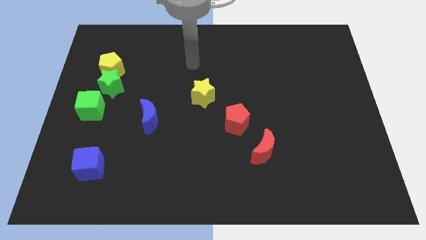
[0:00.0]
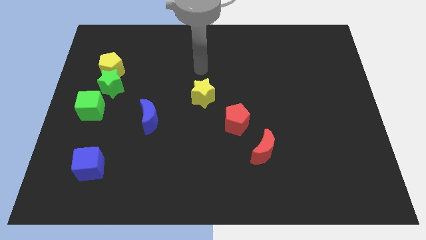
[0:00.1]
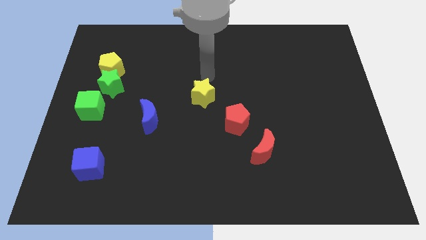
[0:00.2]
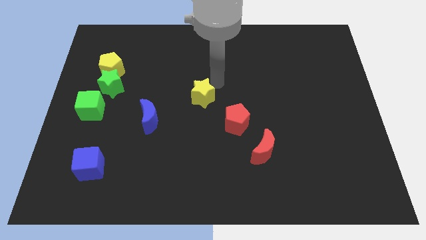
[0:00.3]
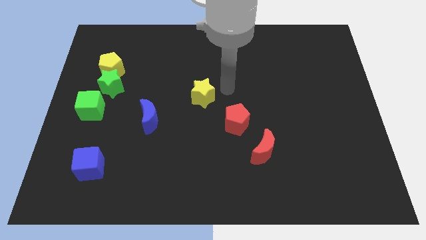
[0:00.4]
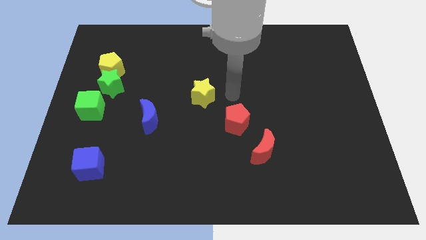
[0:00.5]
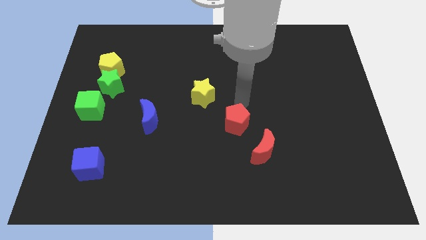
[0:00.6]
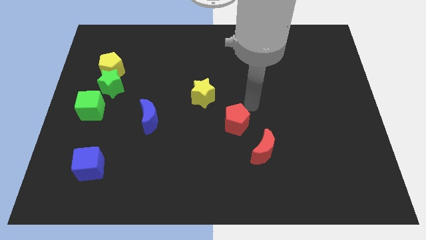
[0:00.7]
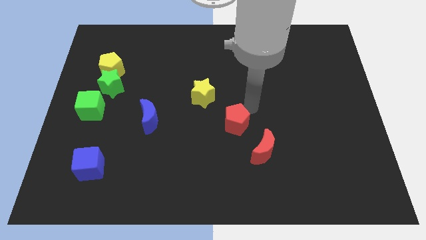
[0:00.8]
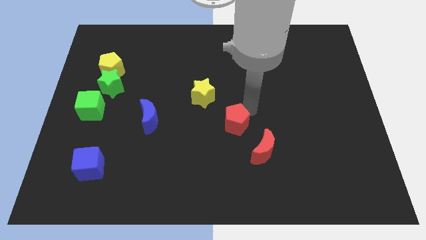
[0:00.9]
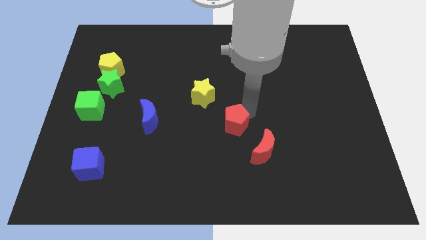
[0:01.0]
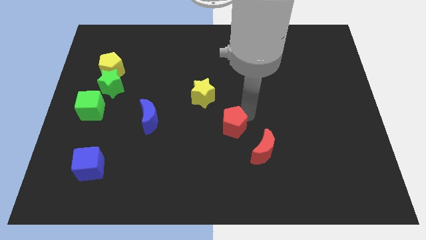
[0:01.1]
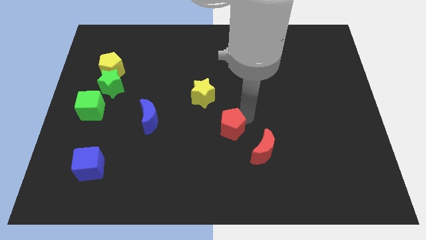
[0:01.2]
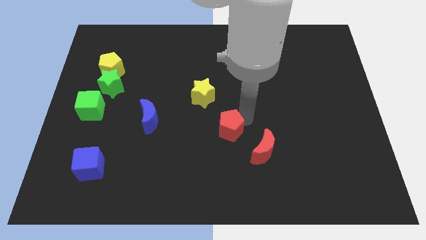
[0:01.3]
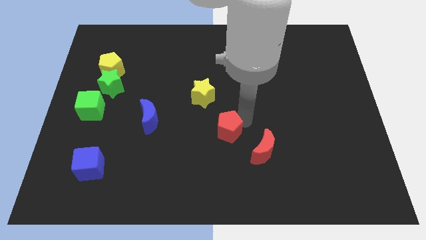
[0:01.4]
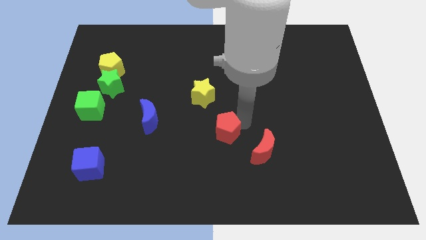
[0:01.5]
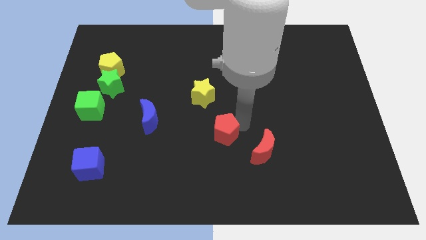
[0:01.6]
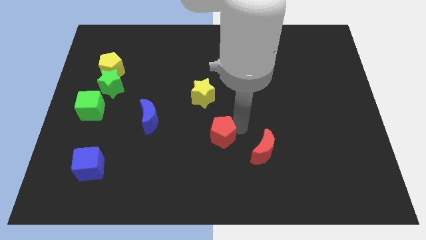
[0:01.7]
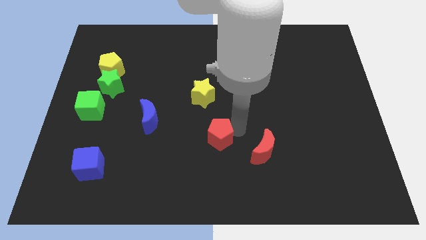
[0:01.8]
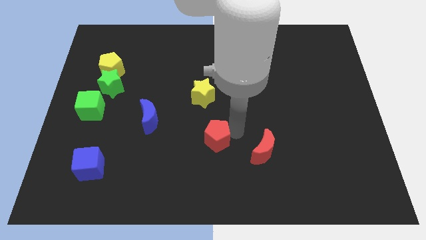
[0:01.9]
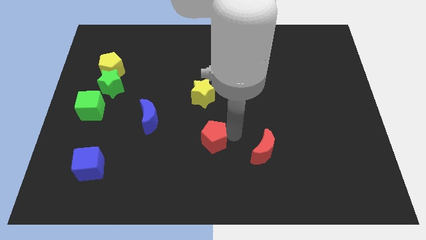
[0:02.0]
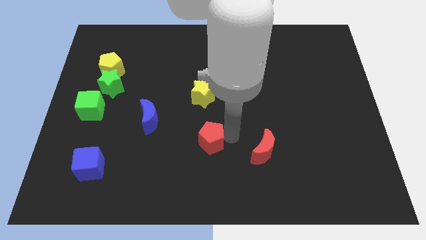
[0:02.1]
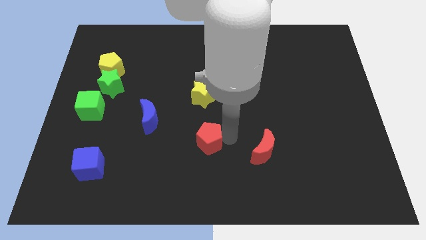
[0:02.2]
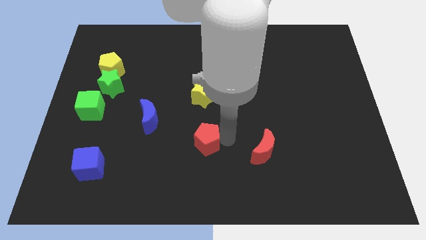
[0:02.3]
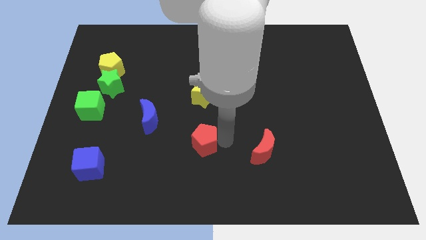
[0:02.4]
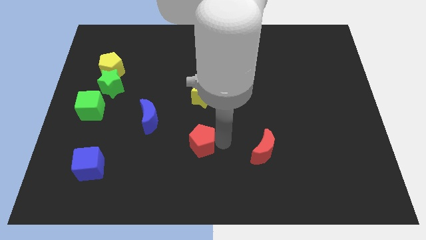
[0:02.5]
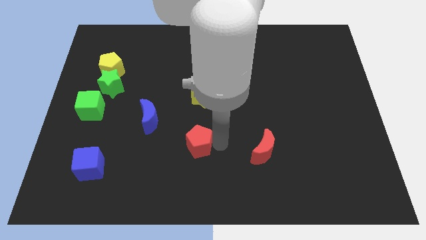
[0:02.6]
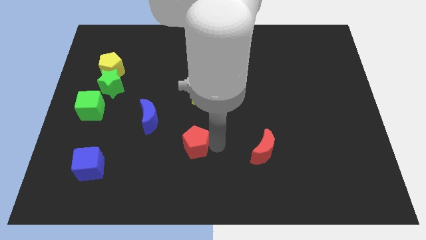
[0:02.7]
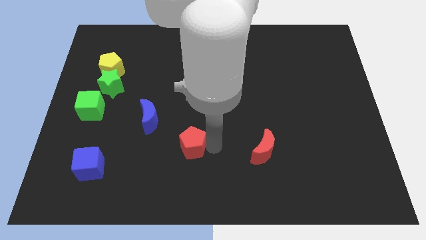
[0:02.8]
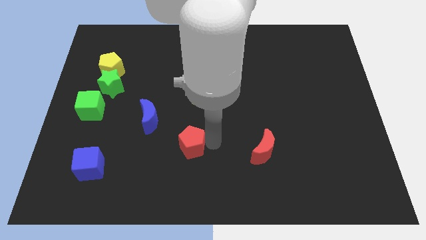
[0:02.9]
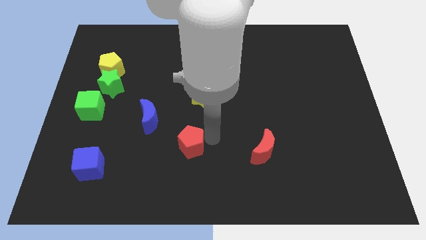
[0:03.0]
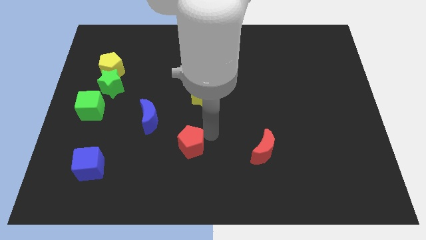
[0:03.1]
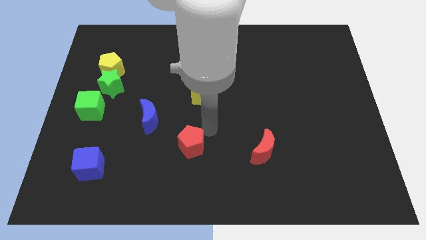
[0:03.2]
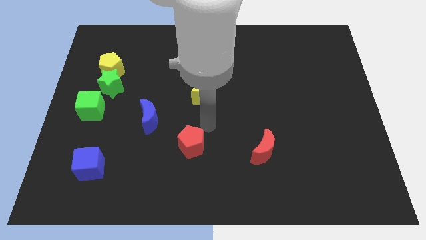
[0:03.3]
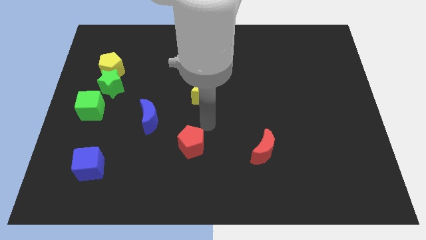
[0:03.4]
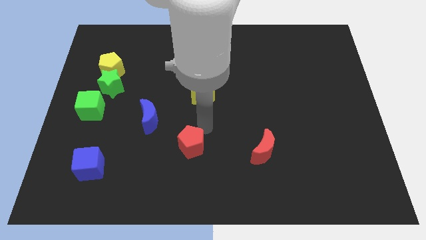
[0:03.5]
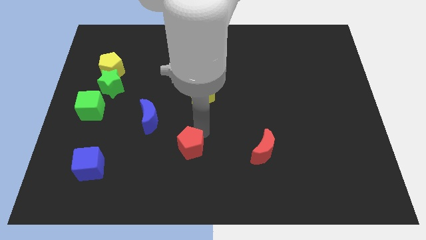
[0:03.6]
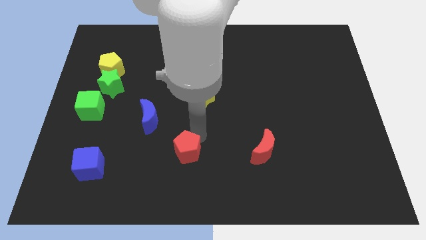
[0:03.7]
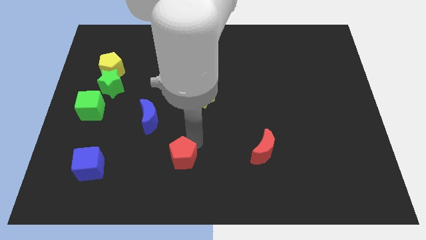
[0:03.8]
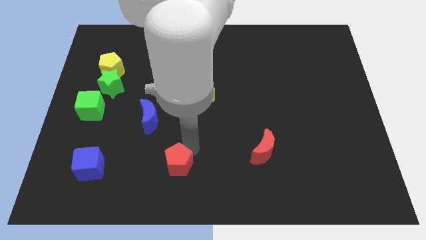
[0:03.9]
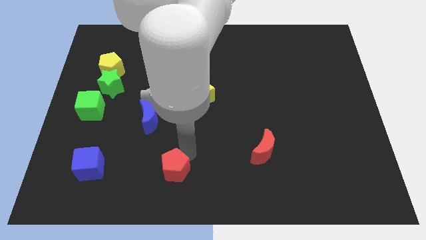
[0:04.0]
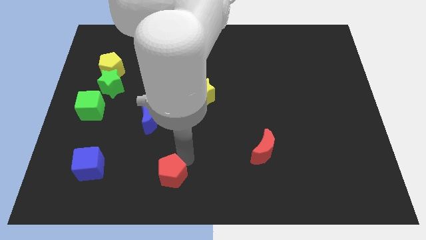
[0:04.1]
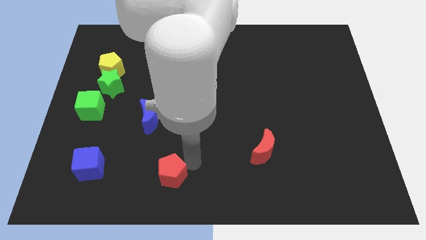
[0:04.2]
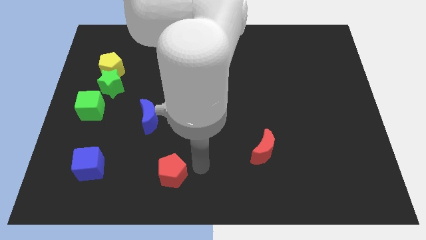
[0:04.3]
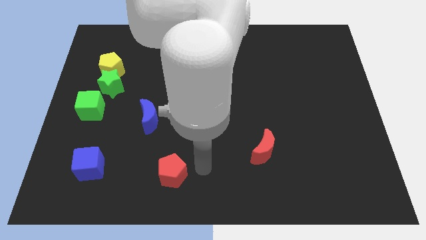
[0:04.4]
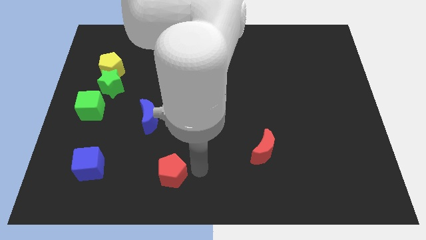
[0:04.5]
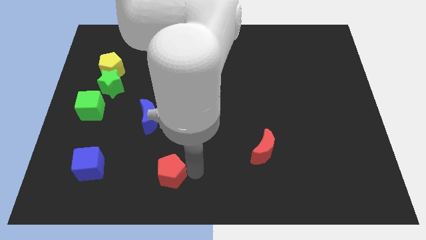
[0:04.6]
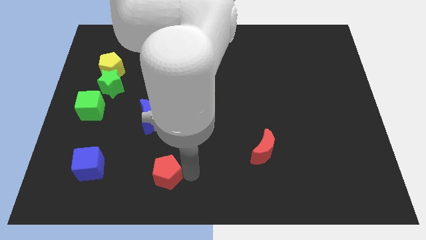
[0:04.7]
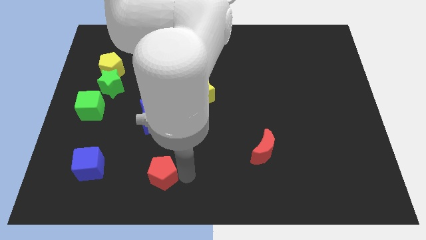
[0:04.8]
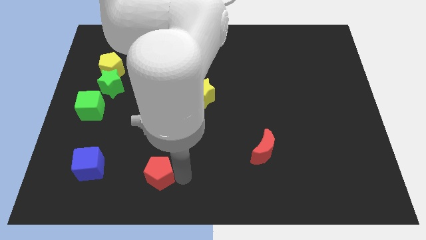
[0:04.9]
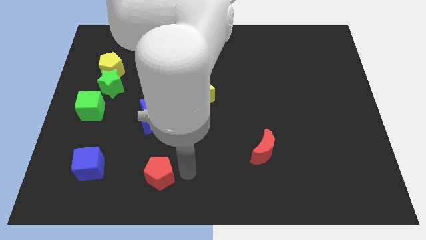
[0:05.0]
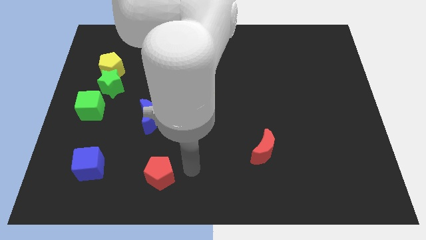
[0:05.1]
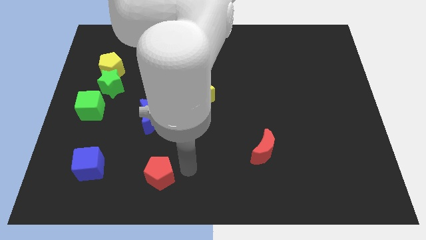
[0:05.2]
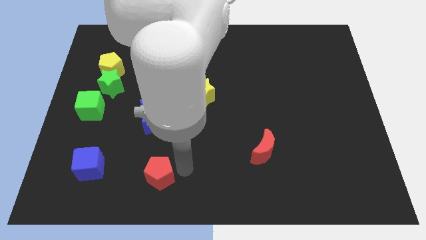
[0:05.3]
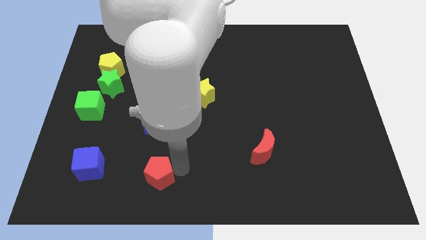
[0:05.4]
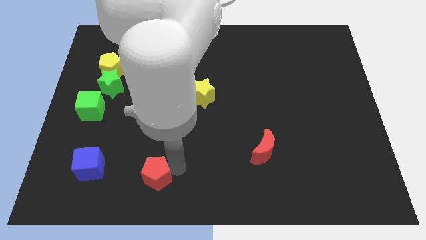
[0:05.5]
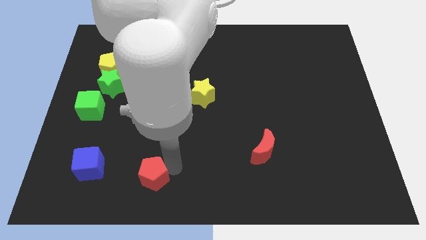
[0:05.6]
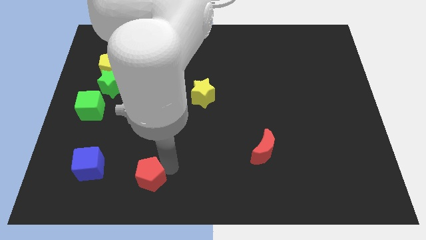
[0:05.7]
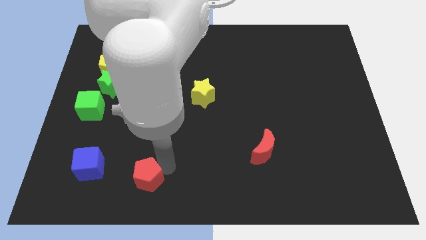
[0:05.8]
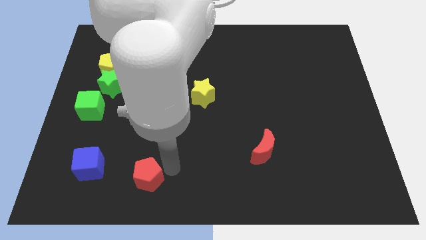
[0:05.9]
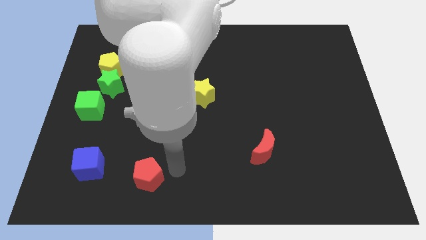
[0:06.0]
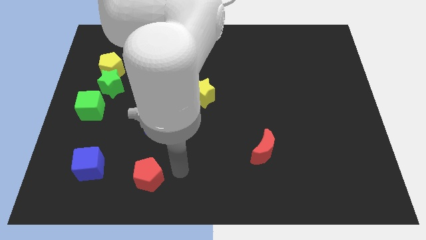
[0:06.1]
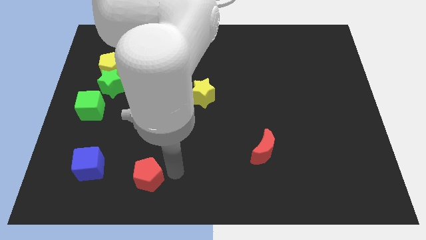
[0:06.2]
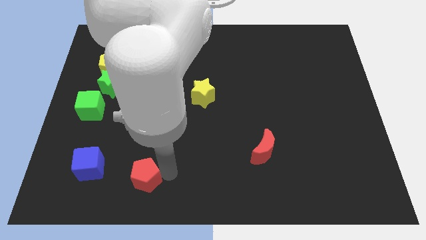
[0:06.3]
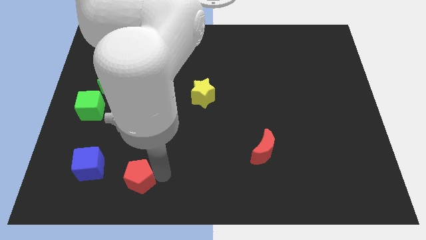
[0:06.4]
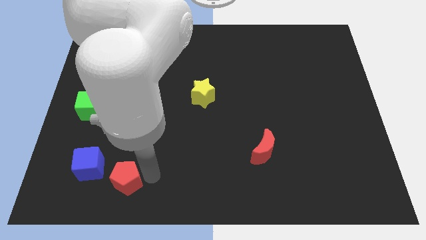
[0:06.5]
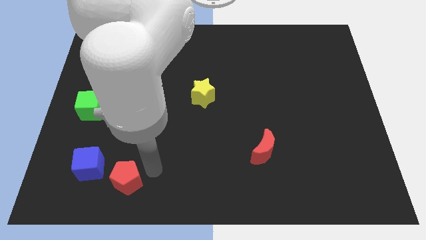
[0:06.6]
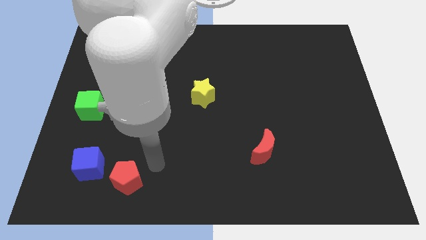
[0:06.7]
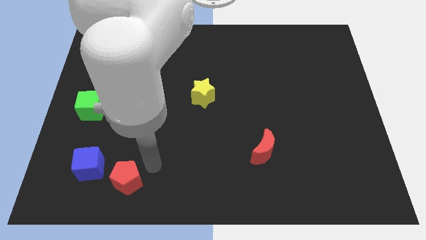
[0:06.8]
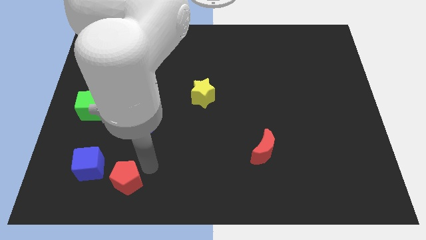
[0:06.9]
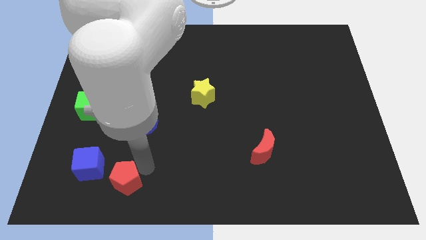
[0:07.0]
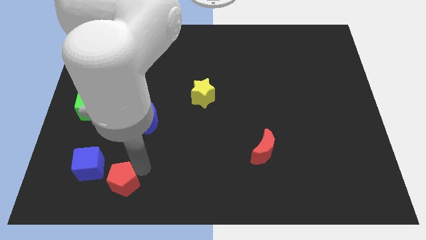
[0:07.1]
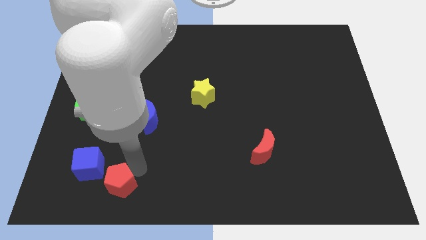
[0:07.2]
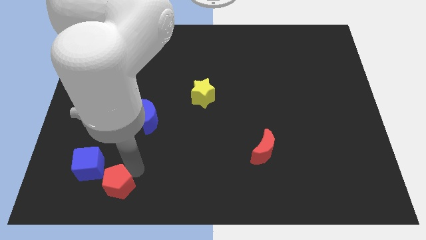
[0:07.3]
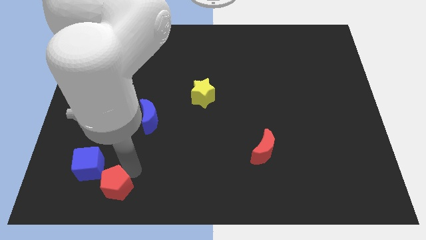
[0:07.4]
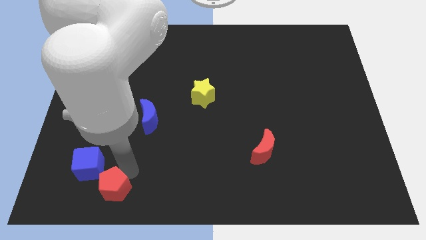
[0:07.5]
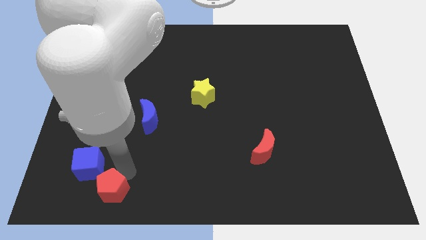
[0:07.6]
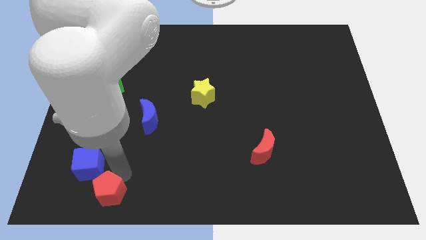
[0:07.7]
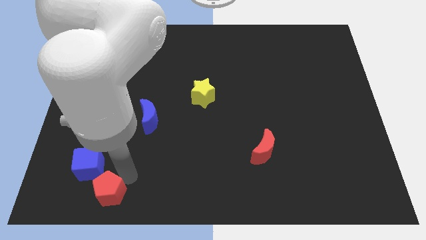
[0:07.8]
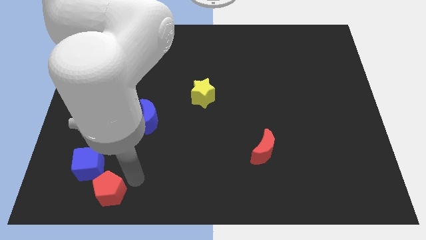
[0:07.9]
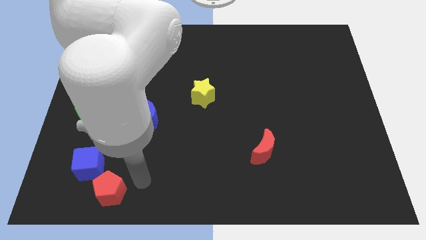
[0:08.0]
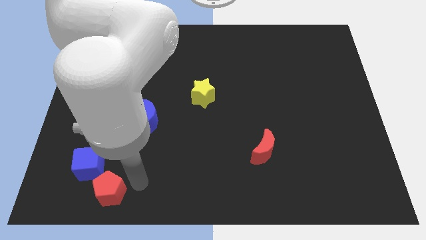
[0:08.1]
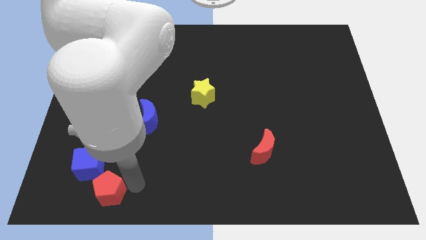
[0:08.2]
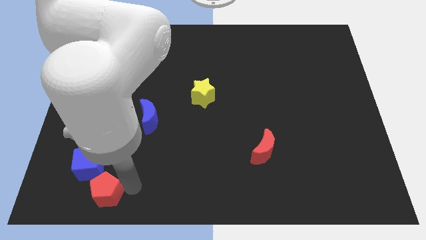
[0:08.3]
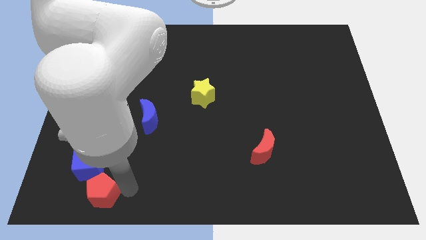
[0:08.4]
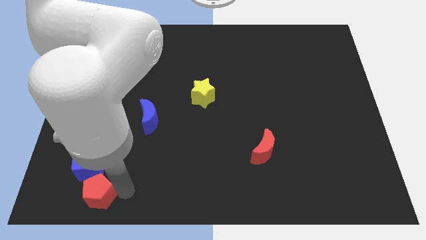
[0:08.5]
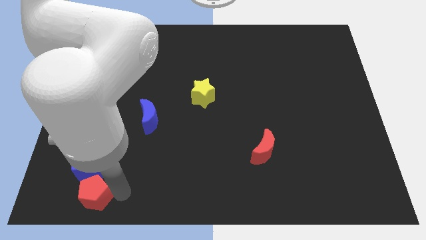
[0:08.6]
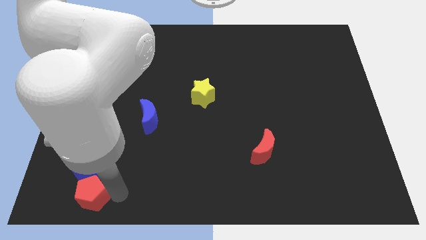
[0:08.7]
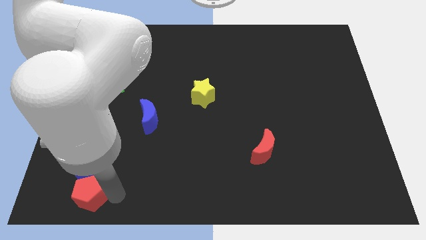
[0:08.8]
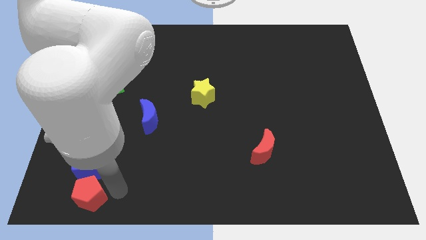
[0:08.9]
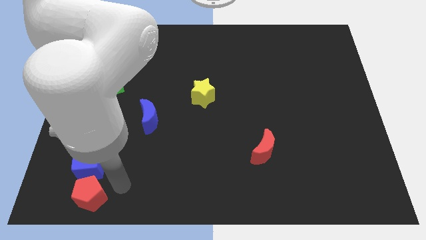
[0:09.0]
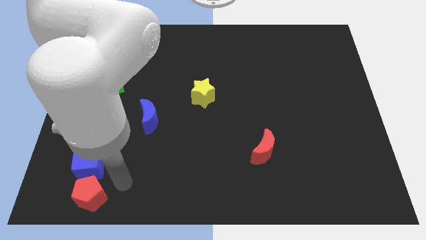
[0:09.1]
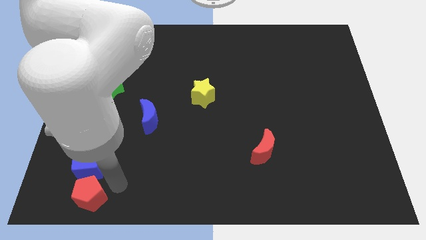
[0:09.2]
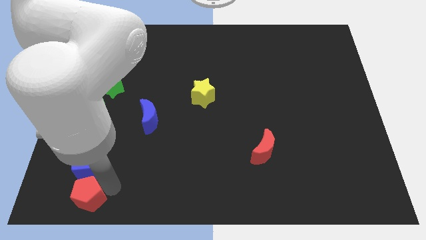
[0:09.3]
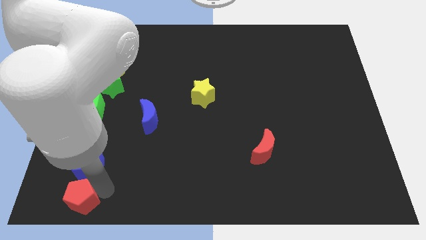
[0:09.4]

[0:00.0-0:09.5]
push the red pentagon to the bottom left of the board
